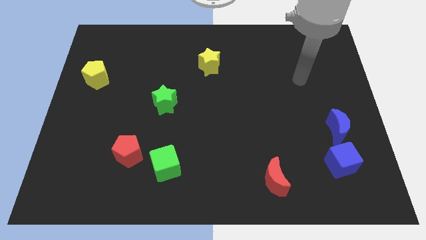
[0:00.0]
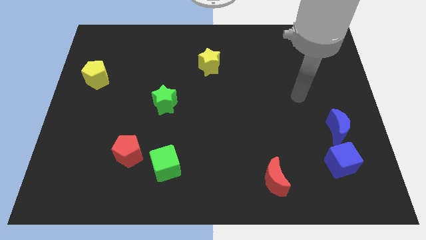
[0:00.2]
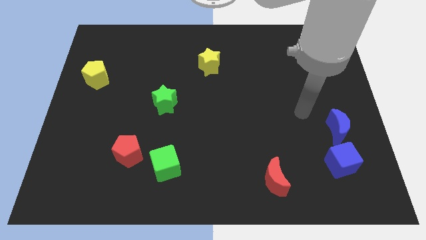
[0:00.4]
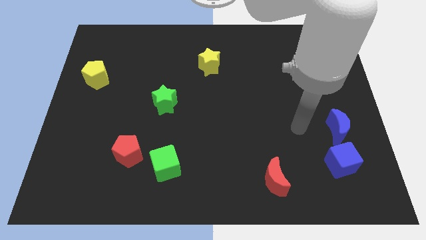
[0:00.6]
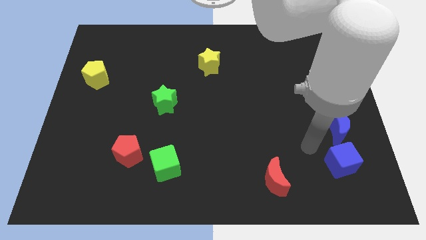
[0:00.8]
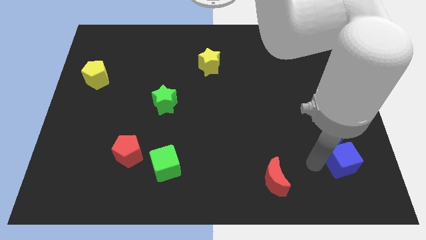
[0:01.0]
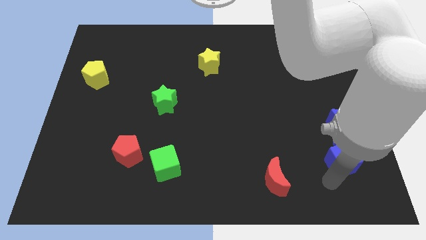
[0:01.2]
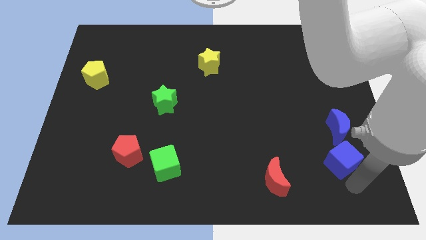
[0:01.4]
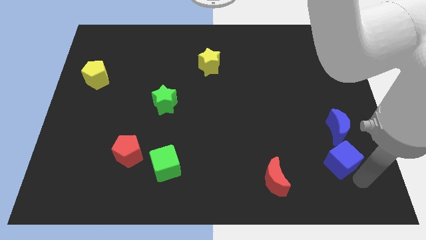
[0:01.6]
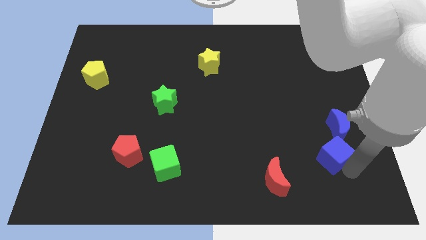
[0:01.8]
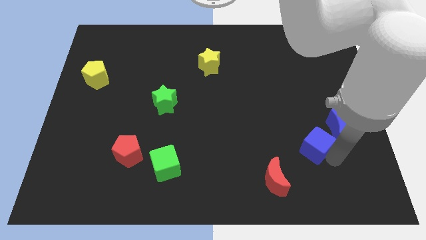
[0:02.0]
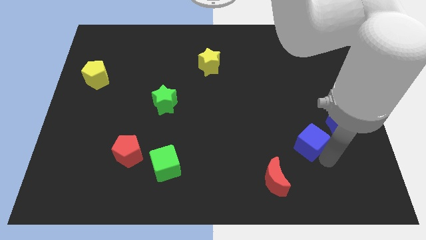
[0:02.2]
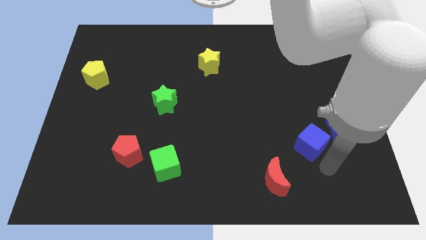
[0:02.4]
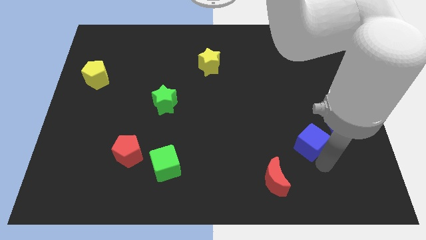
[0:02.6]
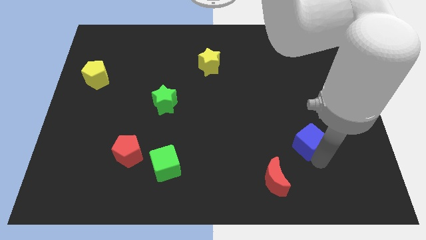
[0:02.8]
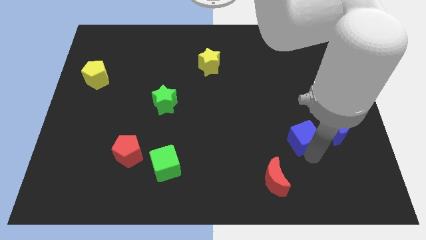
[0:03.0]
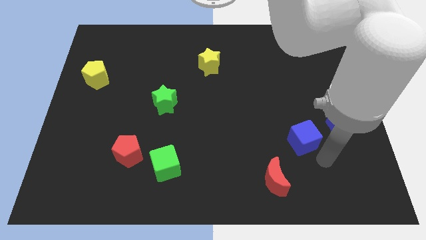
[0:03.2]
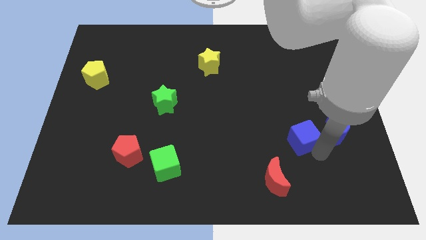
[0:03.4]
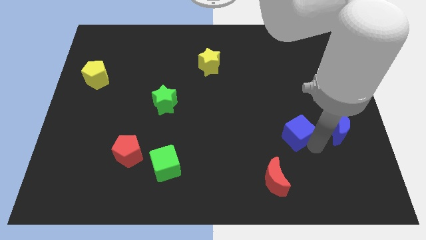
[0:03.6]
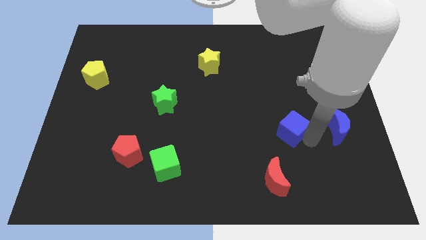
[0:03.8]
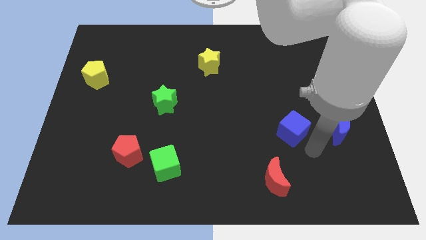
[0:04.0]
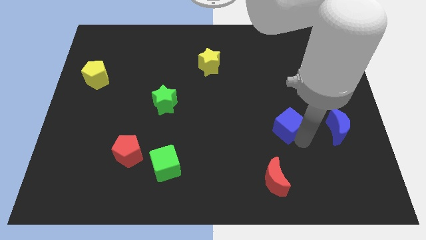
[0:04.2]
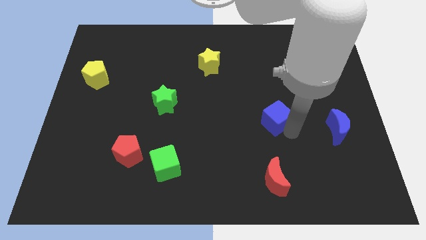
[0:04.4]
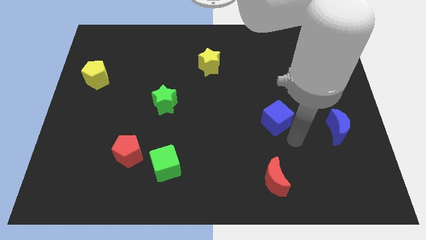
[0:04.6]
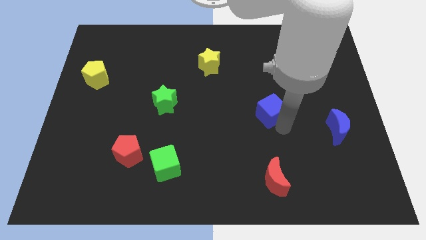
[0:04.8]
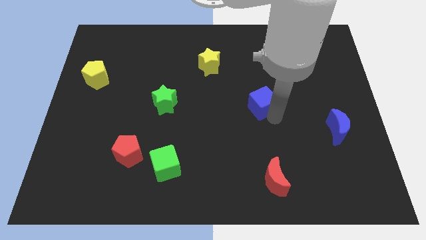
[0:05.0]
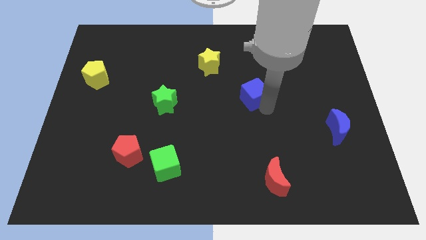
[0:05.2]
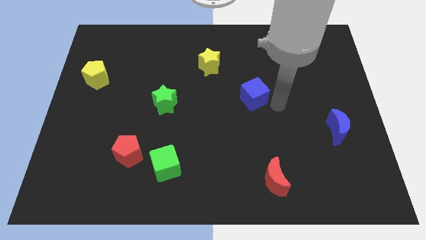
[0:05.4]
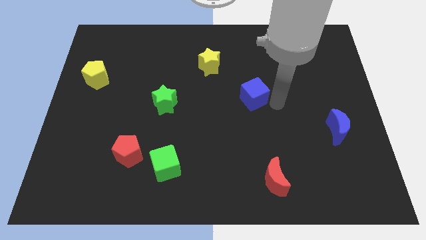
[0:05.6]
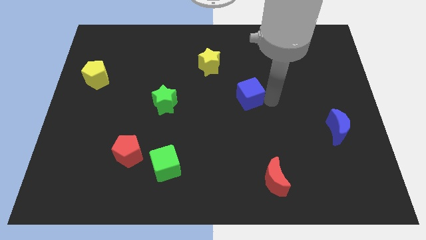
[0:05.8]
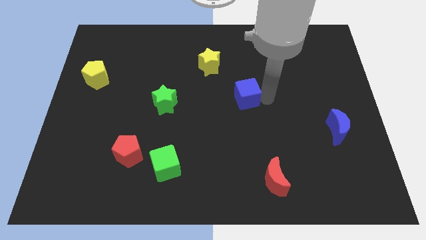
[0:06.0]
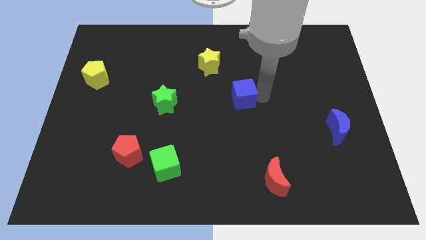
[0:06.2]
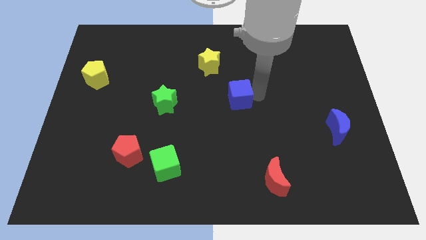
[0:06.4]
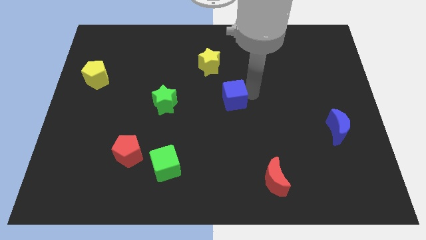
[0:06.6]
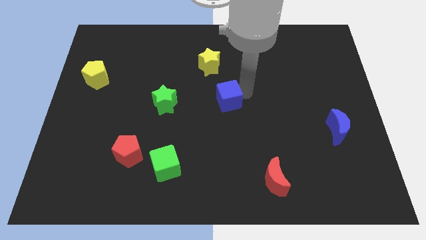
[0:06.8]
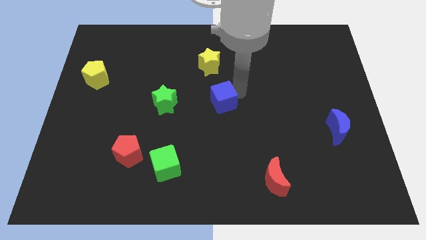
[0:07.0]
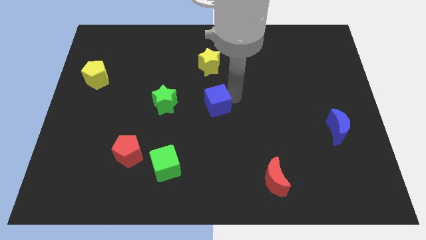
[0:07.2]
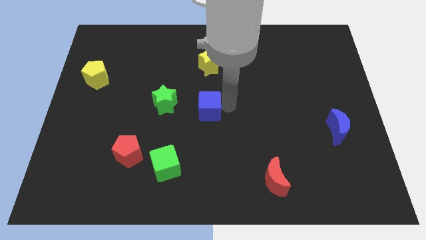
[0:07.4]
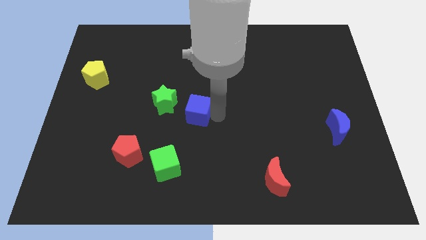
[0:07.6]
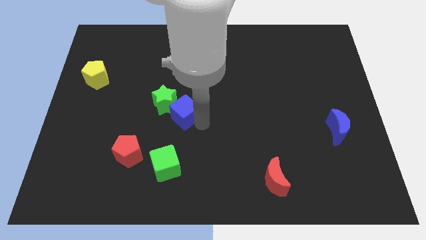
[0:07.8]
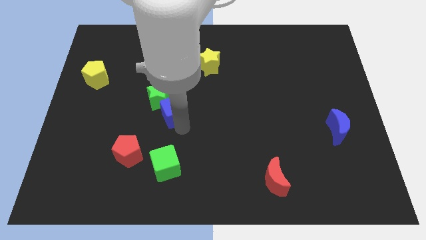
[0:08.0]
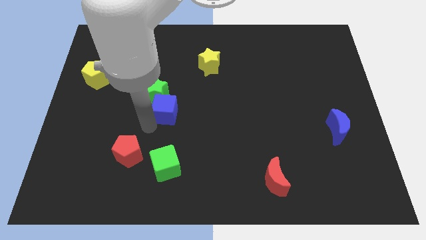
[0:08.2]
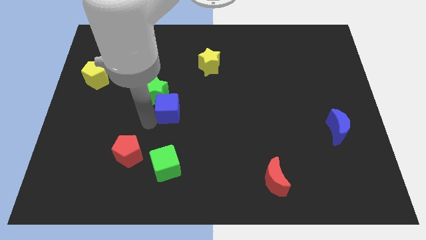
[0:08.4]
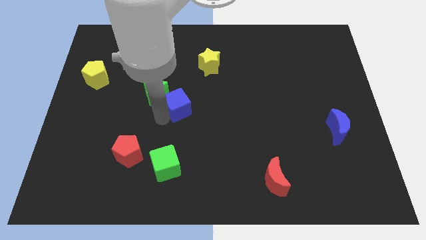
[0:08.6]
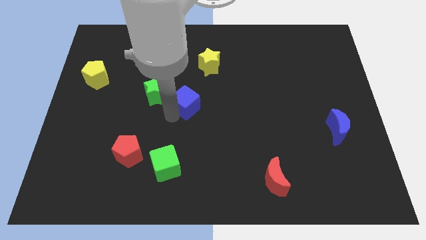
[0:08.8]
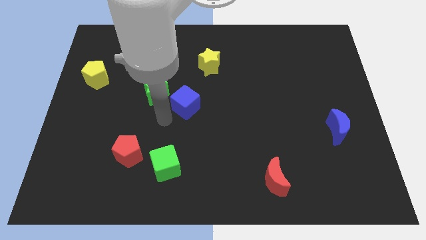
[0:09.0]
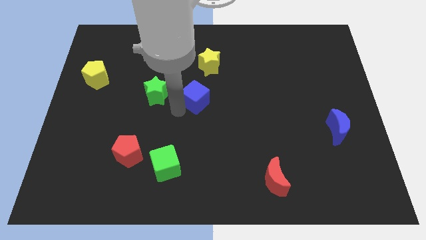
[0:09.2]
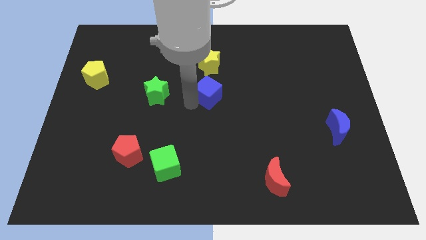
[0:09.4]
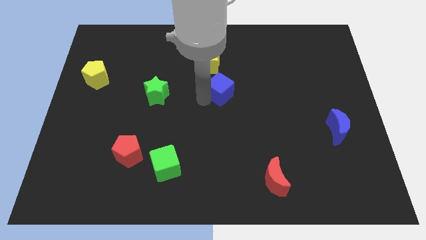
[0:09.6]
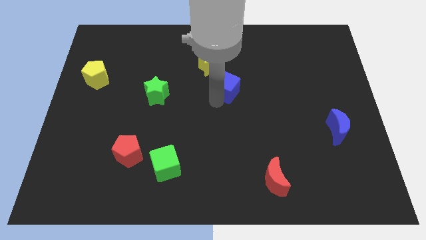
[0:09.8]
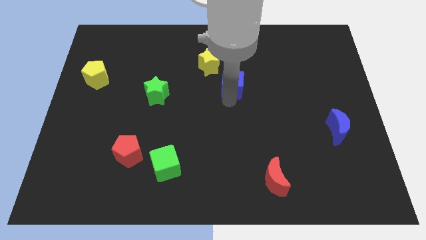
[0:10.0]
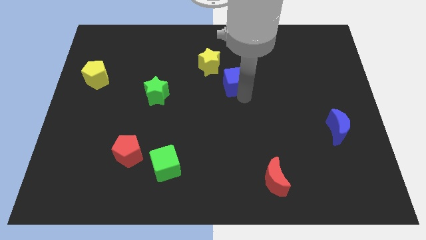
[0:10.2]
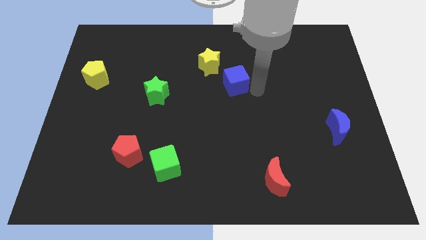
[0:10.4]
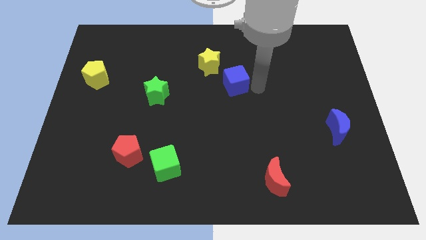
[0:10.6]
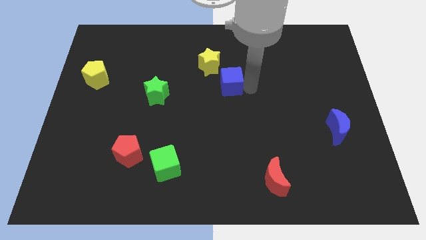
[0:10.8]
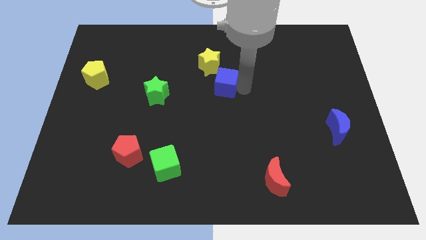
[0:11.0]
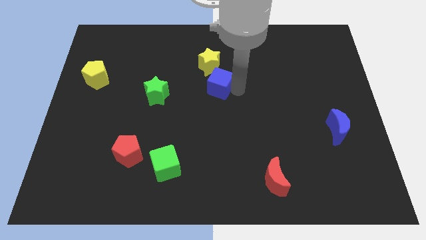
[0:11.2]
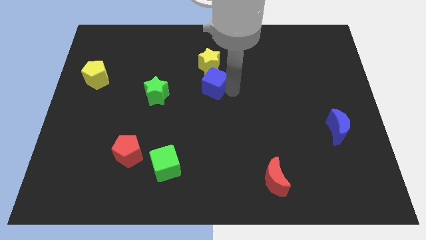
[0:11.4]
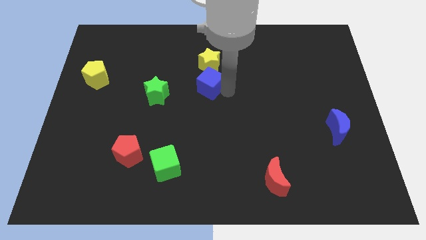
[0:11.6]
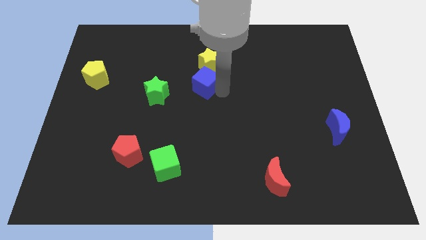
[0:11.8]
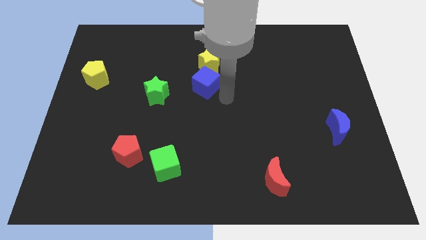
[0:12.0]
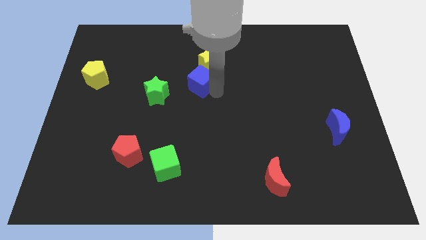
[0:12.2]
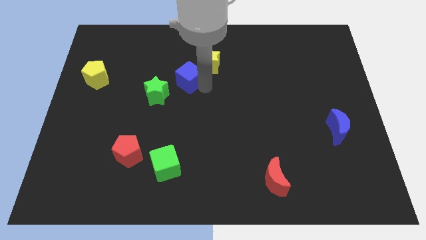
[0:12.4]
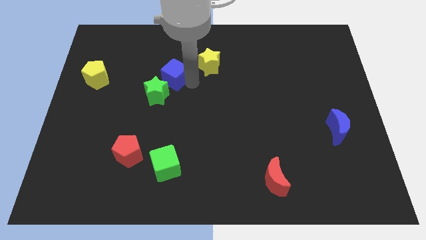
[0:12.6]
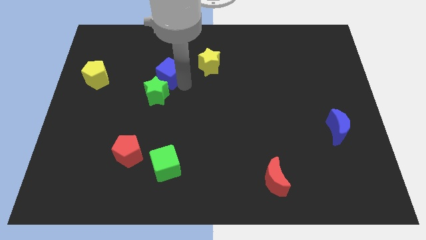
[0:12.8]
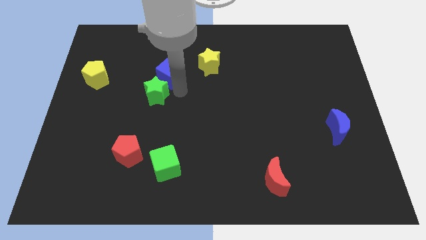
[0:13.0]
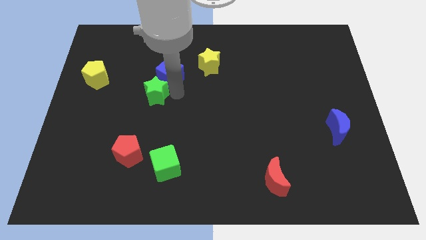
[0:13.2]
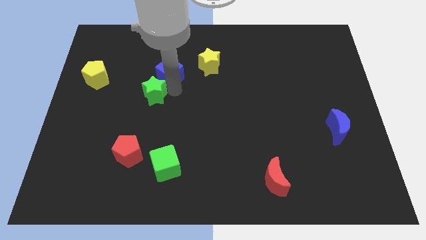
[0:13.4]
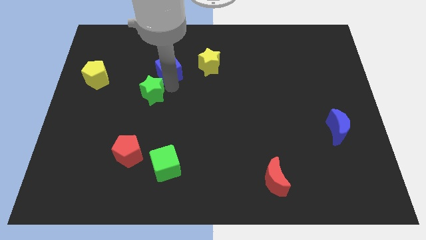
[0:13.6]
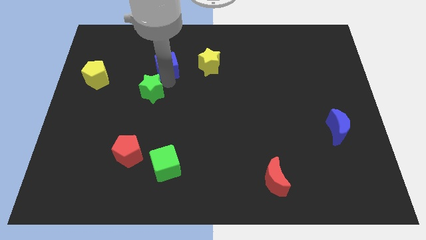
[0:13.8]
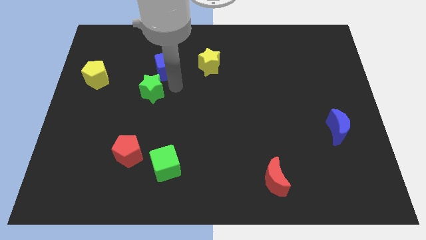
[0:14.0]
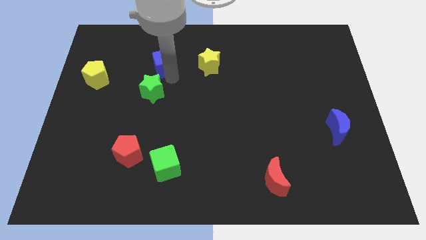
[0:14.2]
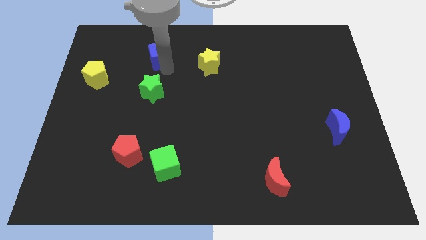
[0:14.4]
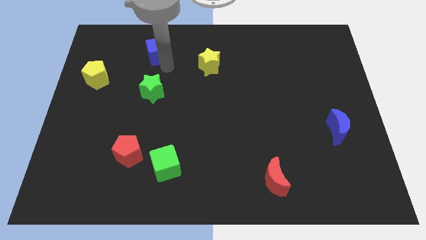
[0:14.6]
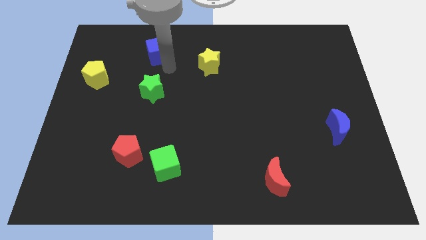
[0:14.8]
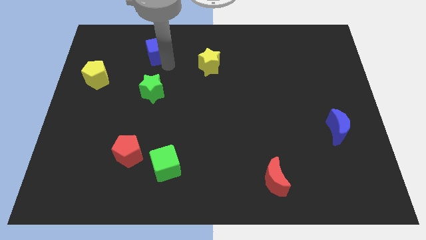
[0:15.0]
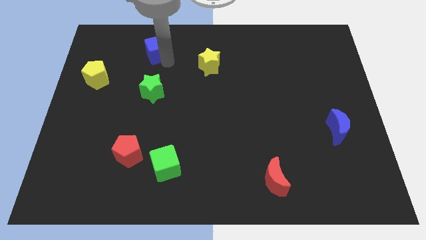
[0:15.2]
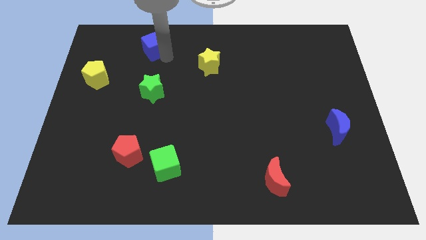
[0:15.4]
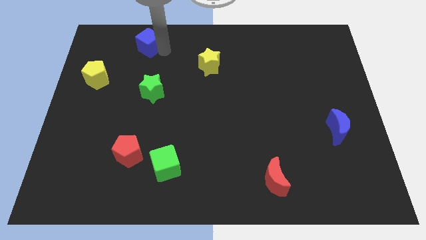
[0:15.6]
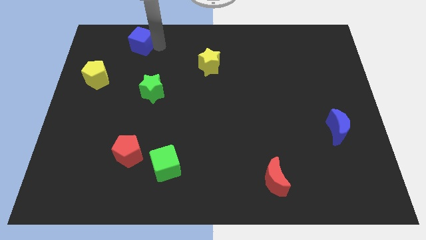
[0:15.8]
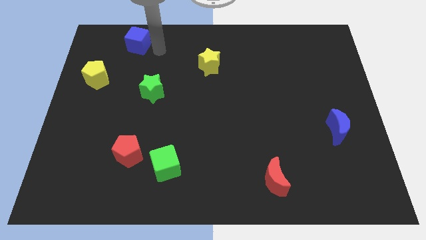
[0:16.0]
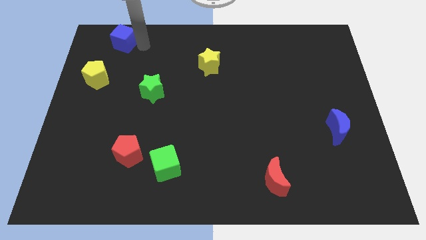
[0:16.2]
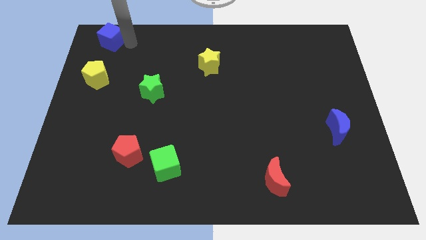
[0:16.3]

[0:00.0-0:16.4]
put the blue cube to the top left corner
